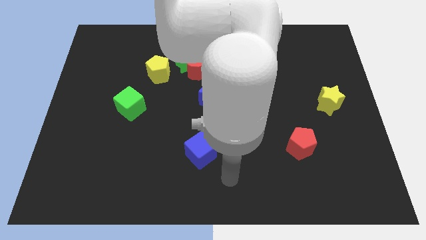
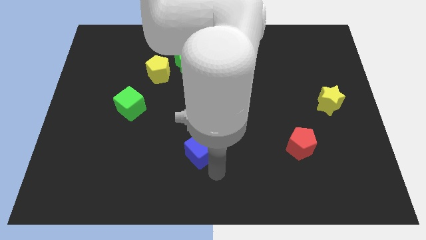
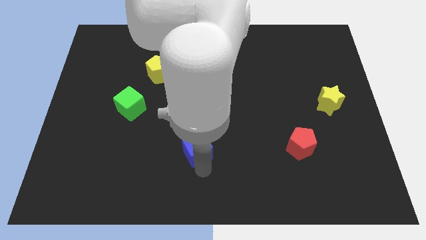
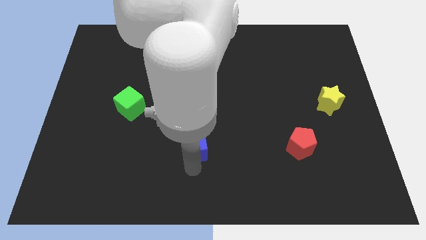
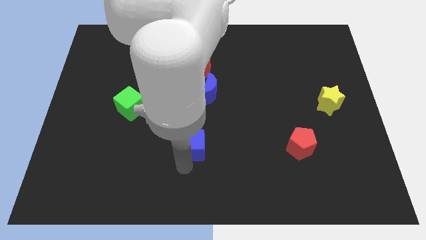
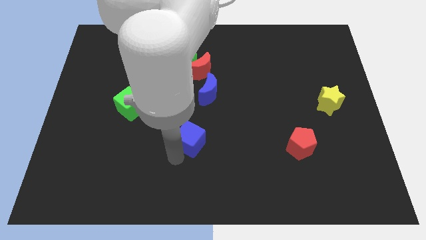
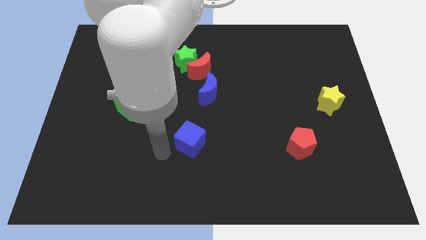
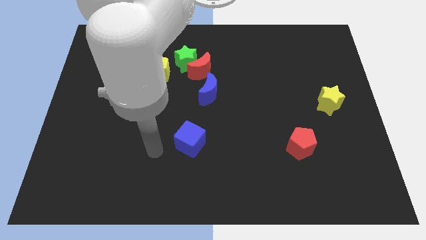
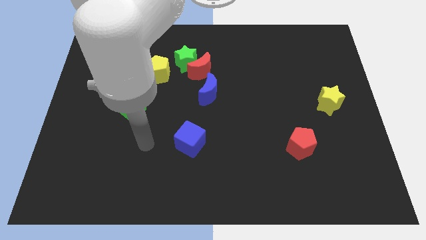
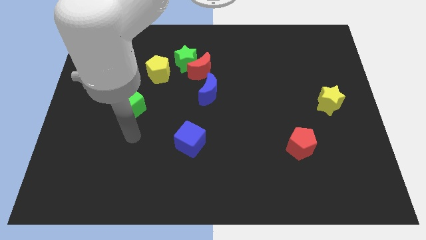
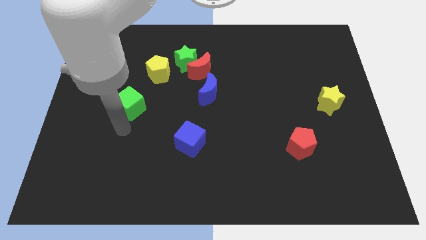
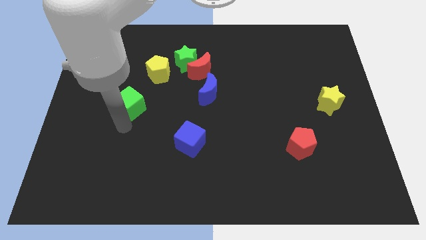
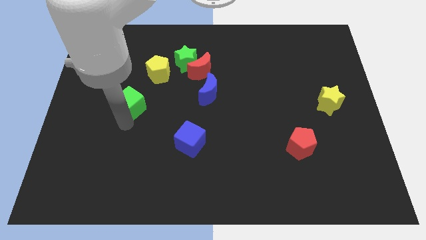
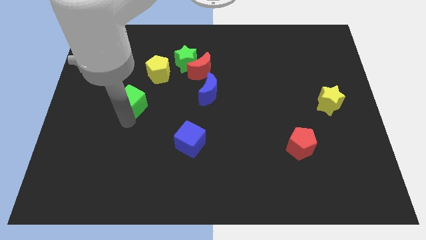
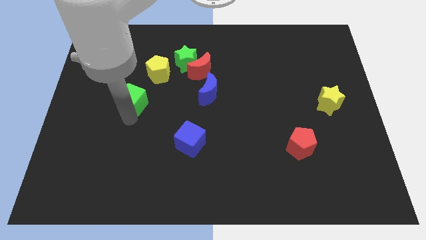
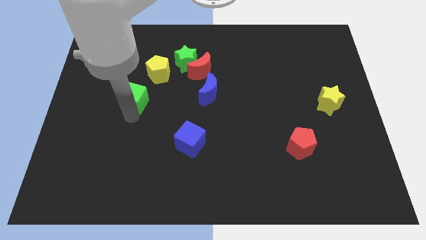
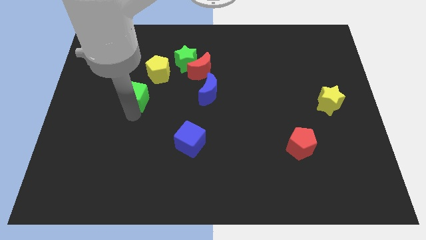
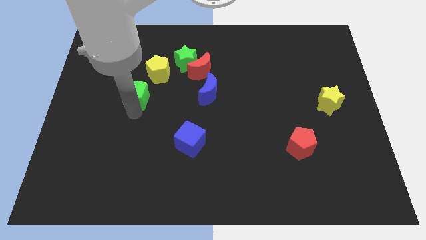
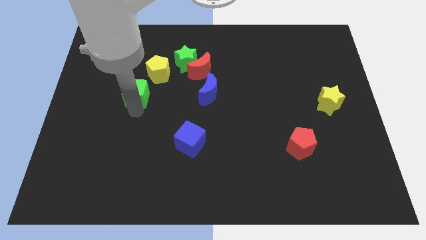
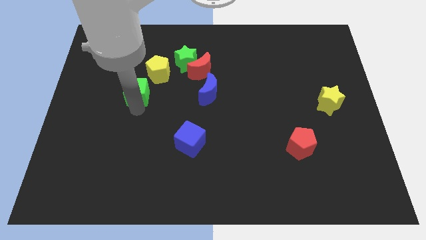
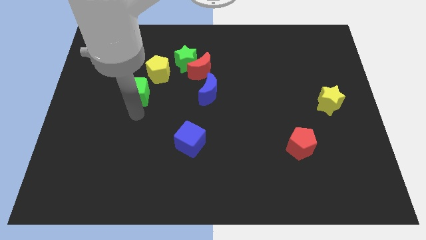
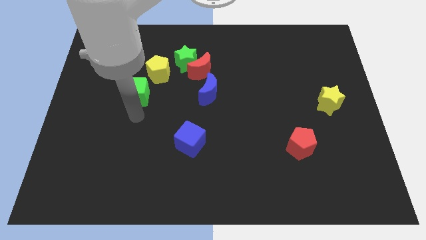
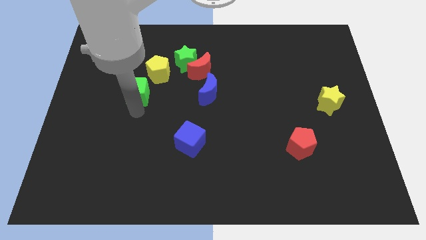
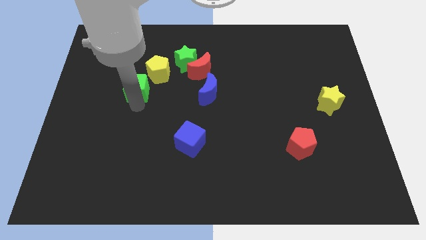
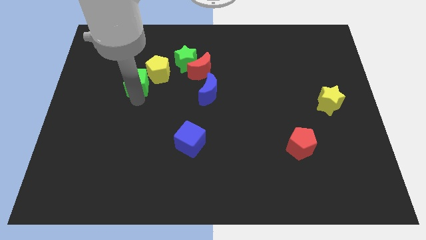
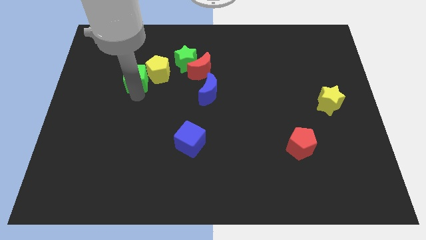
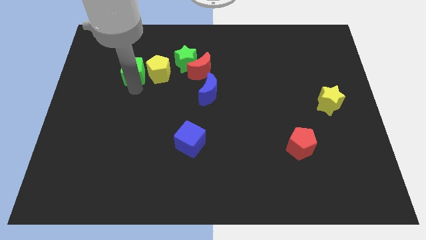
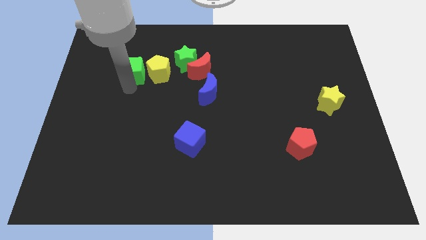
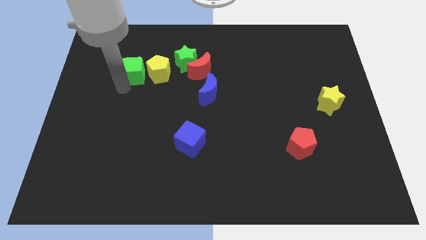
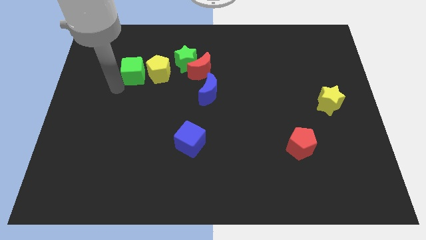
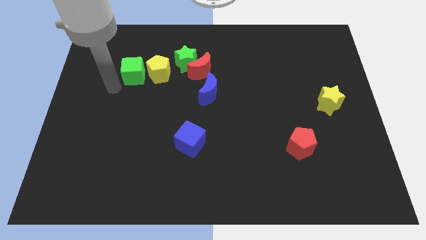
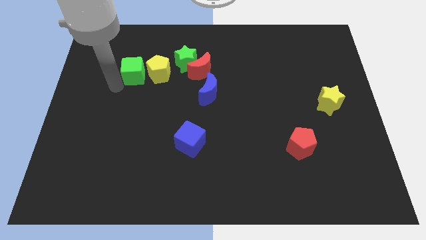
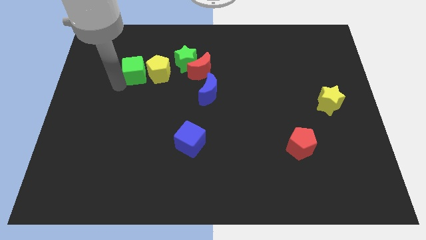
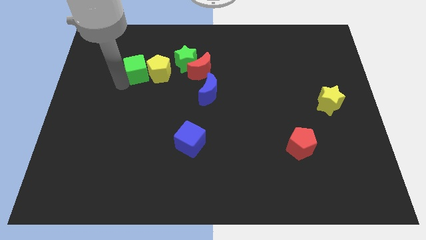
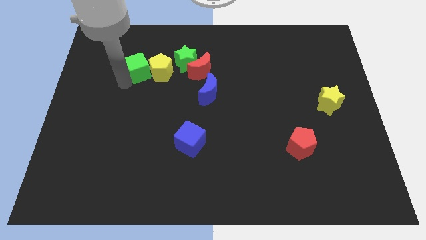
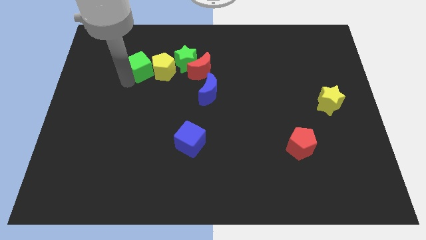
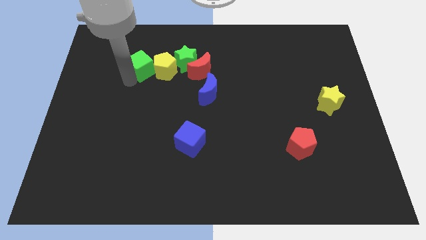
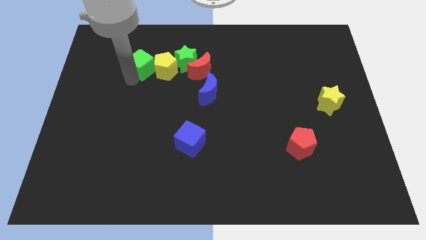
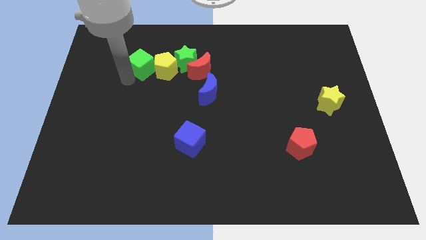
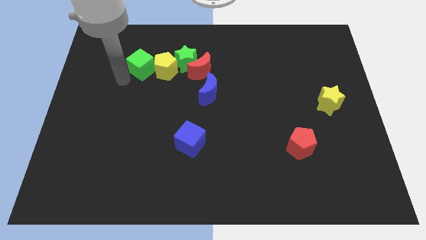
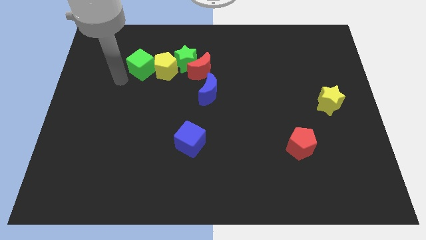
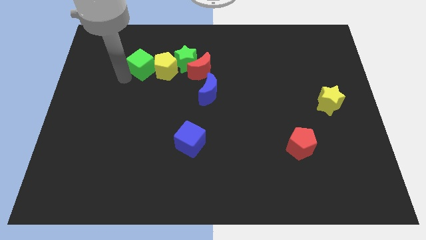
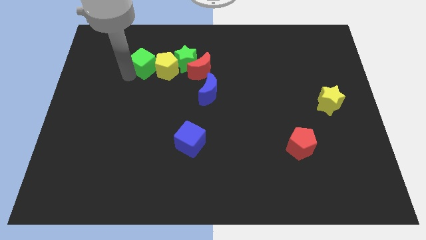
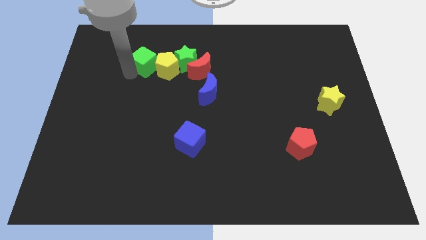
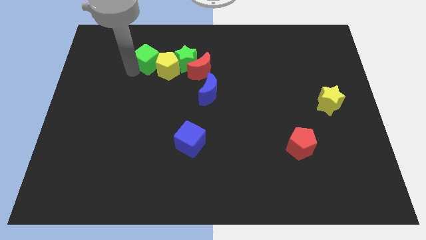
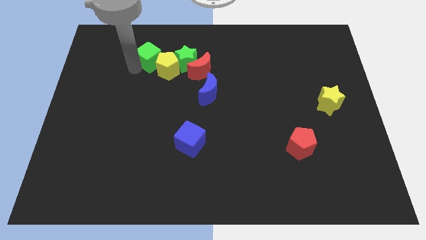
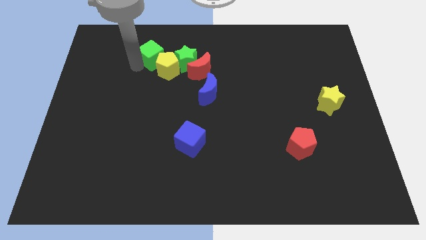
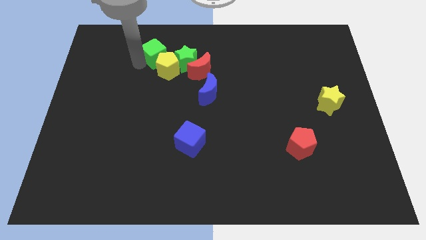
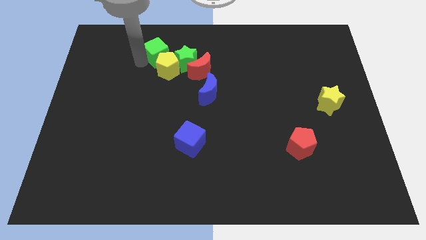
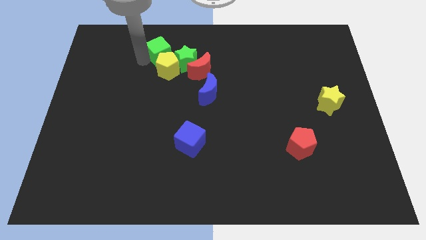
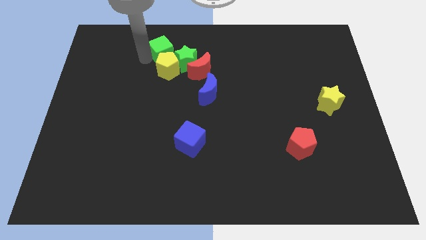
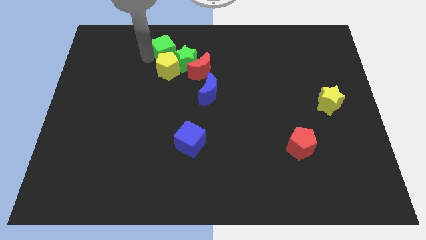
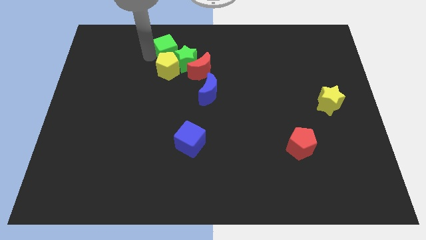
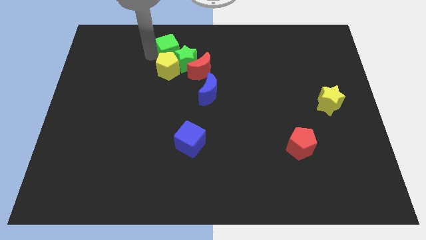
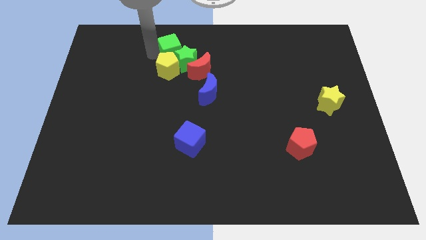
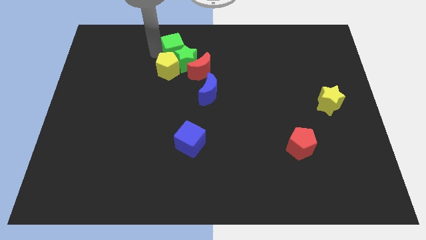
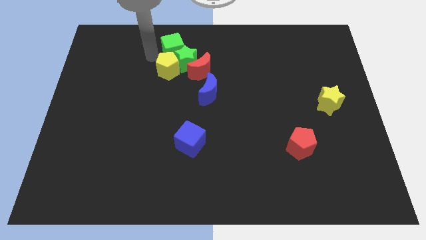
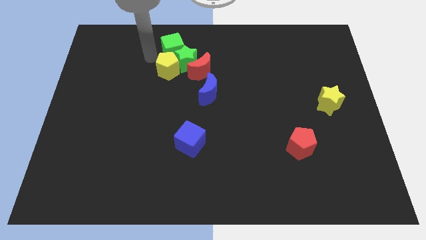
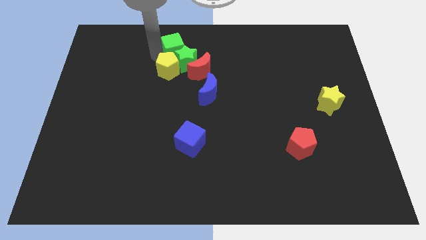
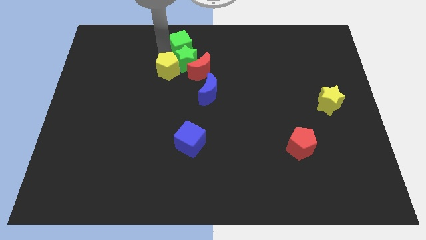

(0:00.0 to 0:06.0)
push the green cube to the top

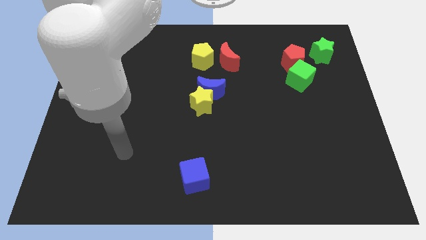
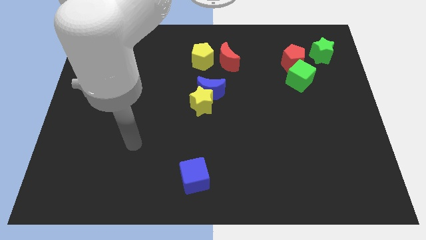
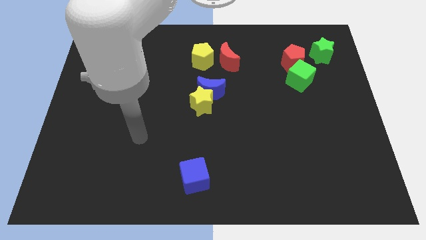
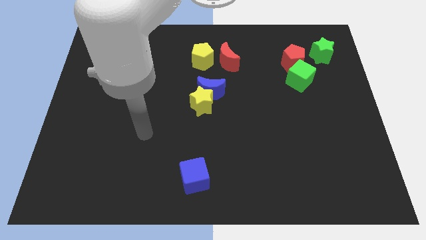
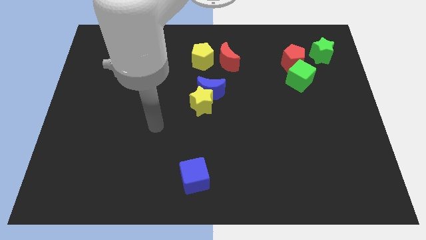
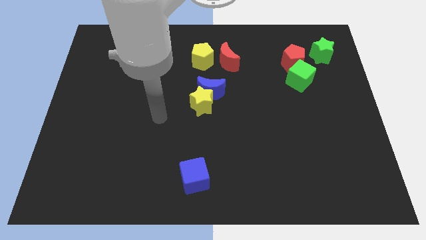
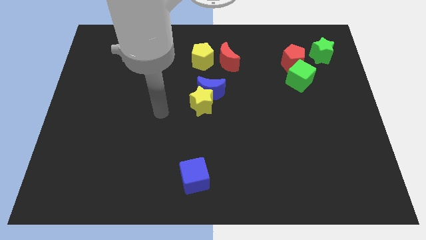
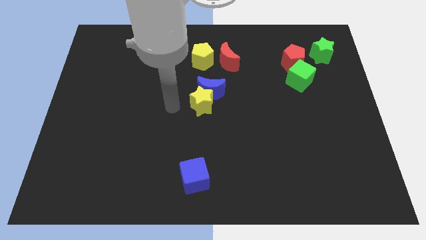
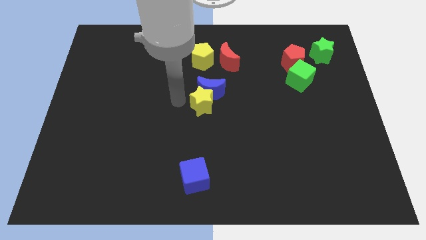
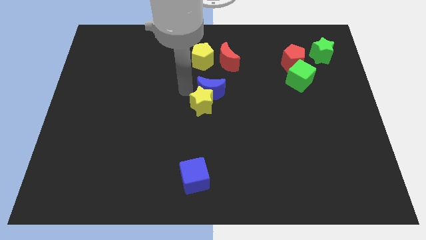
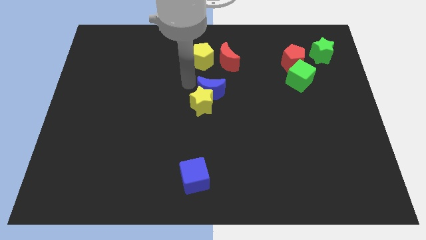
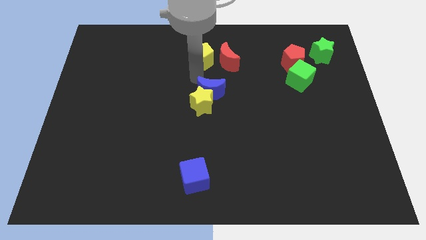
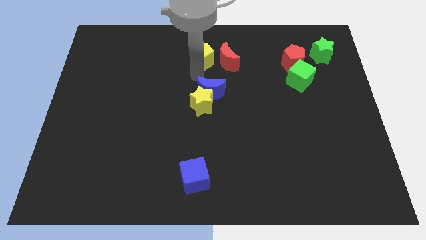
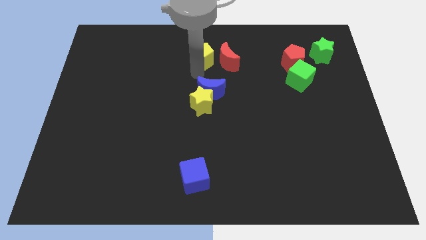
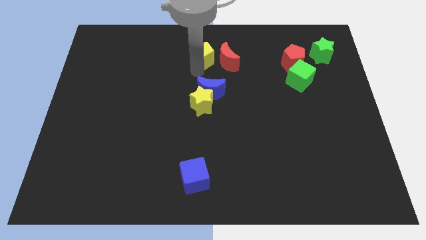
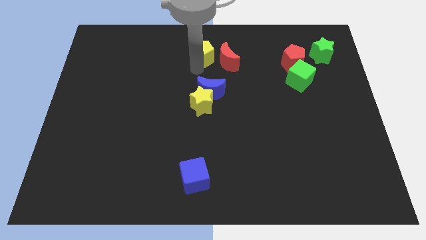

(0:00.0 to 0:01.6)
move the yellow pentagon to the top
